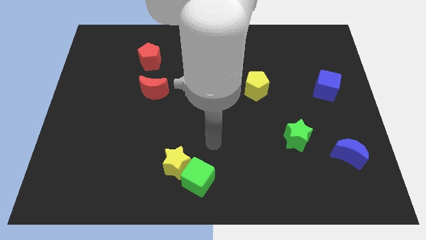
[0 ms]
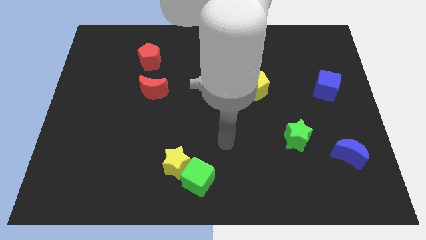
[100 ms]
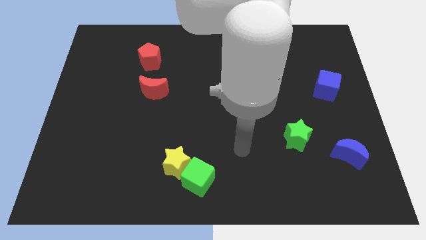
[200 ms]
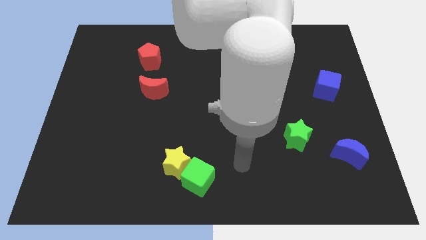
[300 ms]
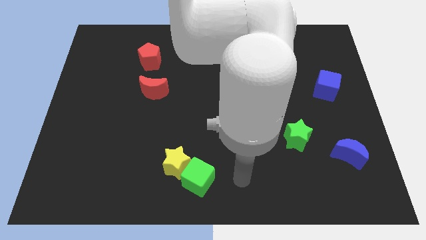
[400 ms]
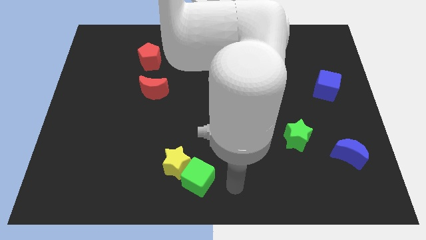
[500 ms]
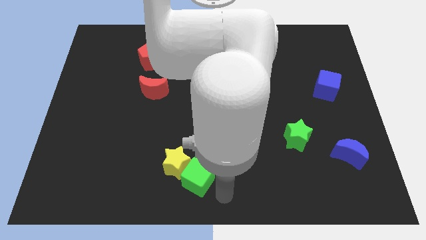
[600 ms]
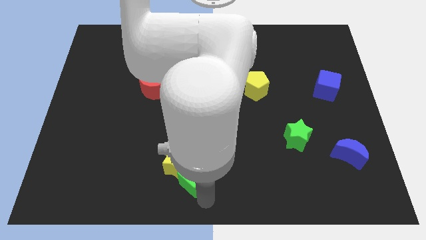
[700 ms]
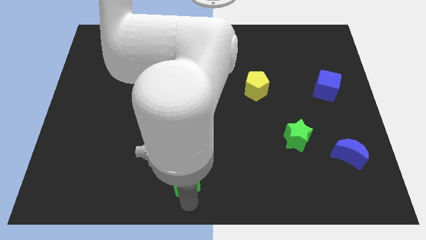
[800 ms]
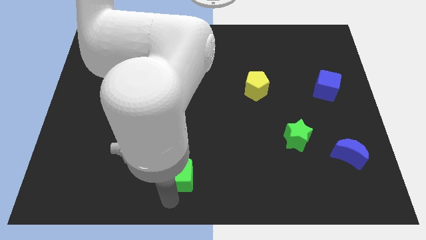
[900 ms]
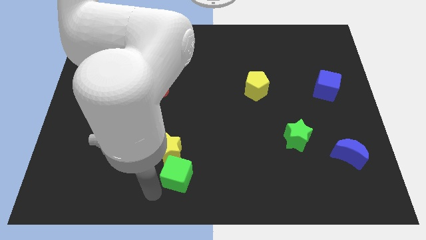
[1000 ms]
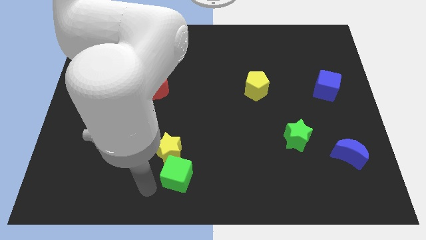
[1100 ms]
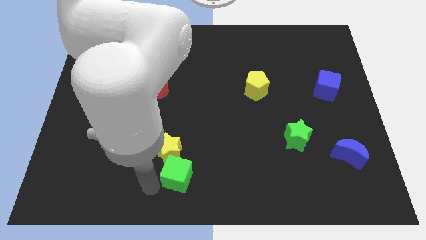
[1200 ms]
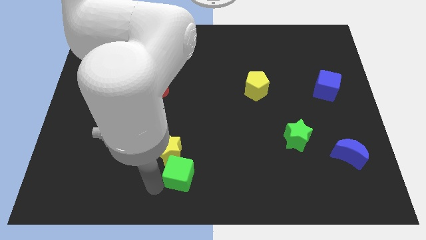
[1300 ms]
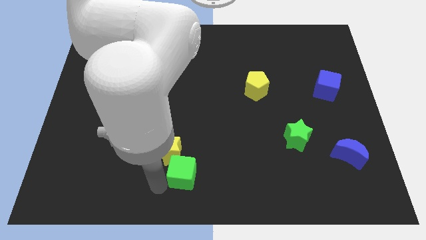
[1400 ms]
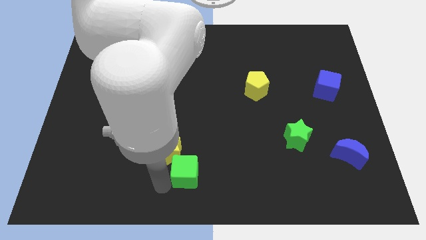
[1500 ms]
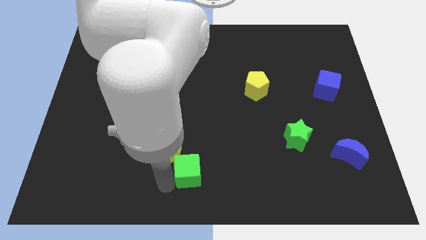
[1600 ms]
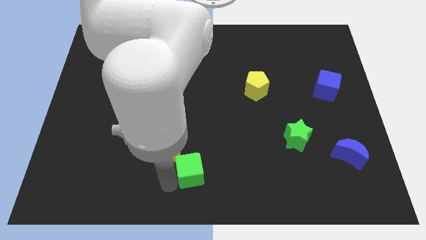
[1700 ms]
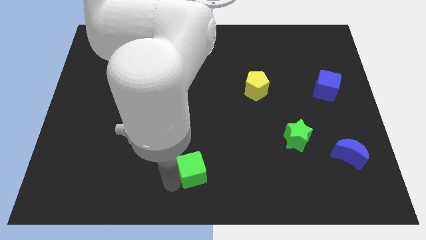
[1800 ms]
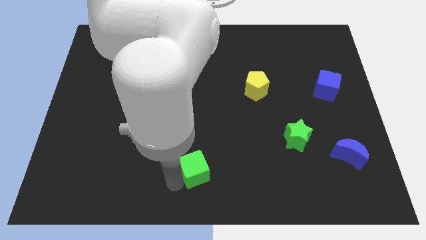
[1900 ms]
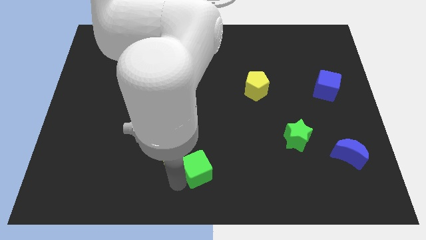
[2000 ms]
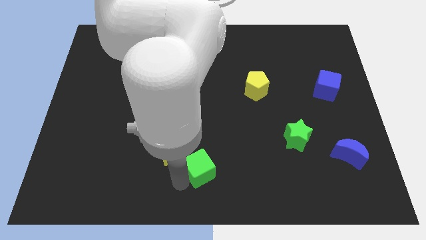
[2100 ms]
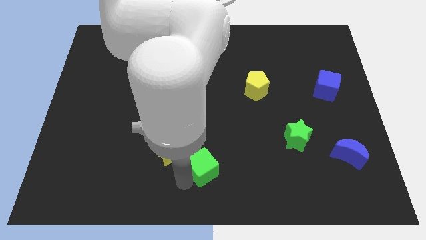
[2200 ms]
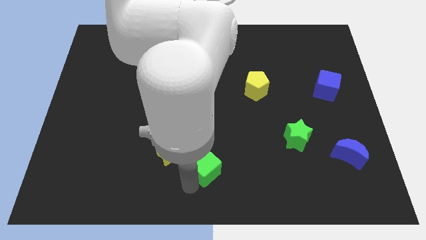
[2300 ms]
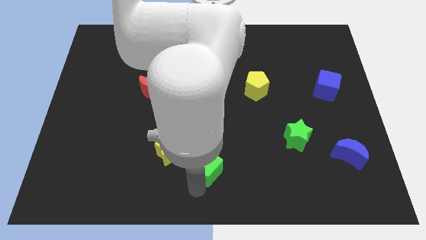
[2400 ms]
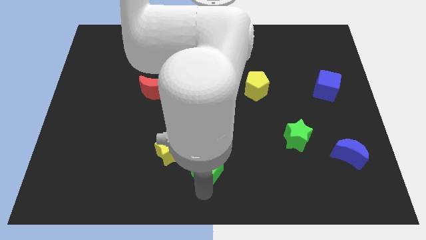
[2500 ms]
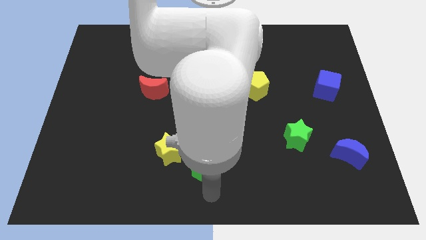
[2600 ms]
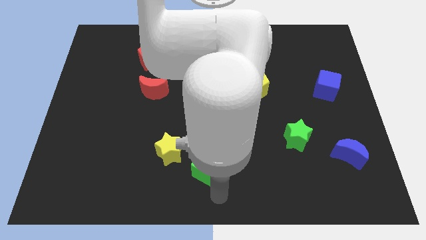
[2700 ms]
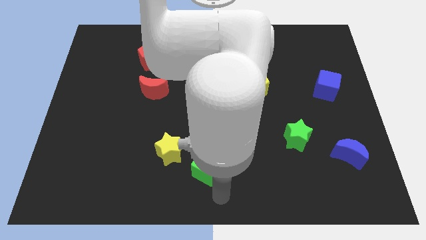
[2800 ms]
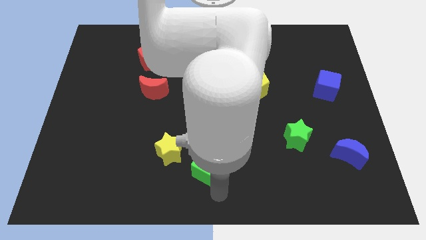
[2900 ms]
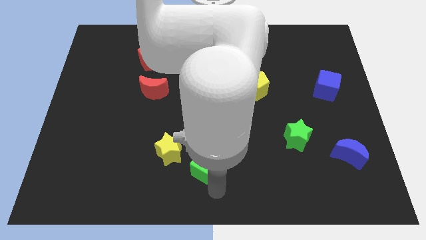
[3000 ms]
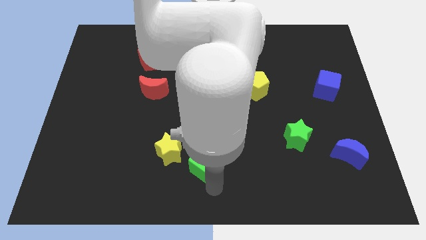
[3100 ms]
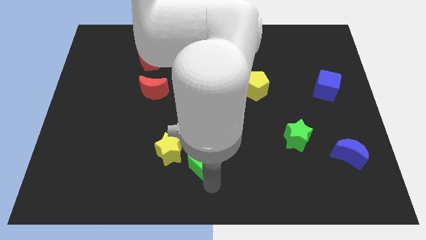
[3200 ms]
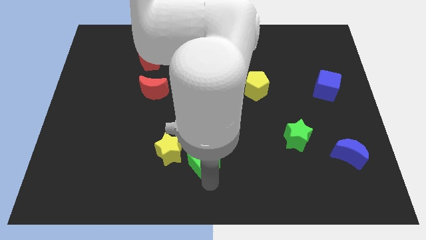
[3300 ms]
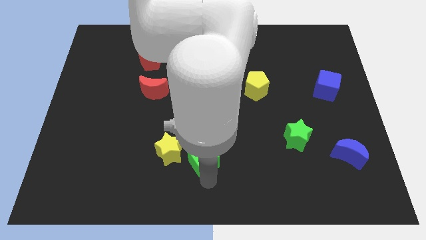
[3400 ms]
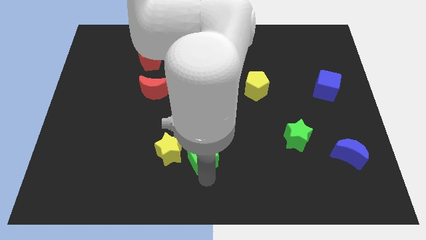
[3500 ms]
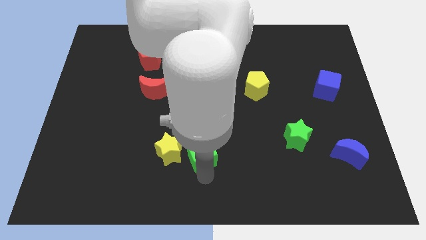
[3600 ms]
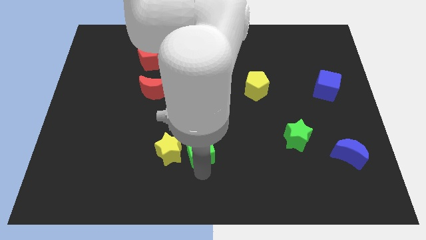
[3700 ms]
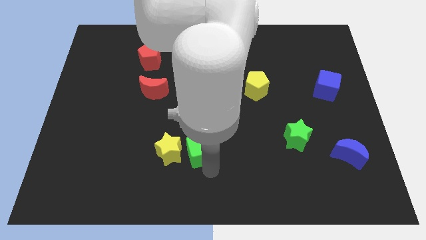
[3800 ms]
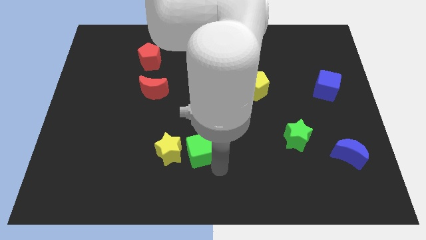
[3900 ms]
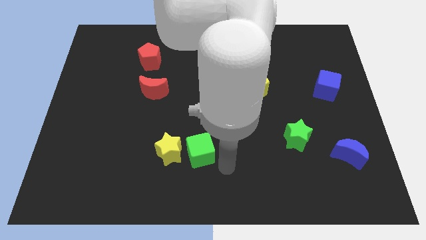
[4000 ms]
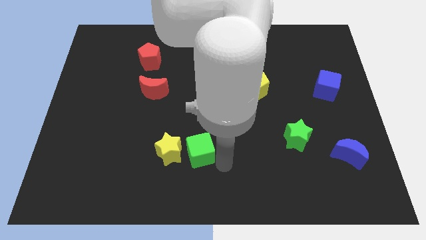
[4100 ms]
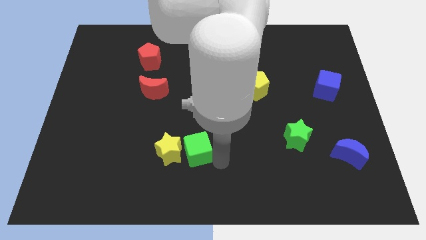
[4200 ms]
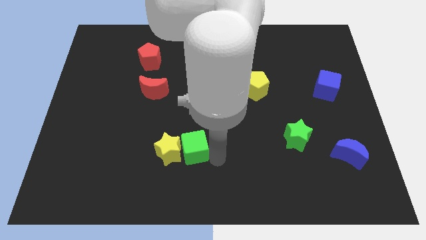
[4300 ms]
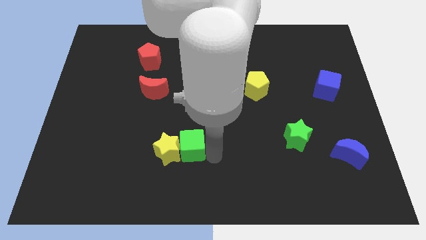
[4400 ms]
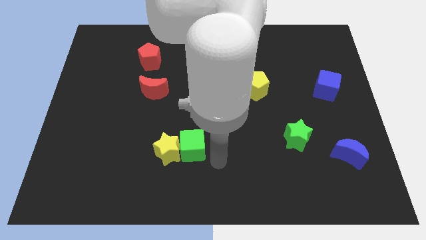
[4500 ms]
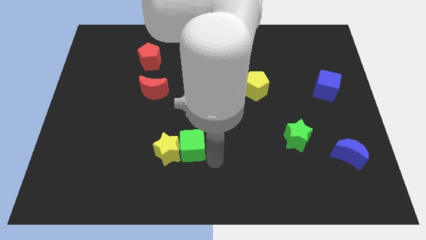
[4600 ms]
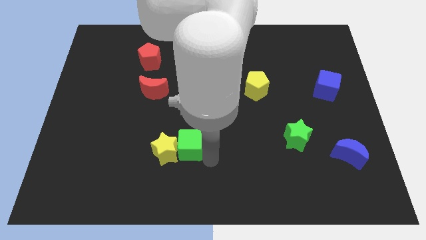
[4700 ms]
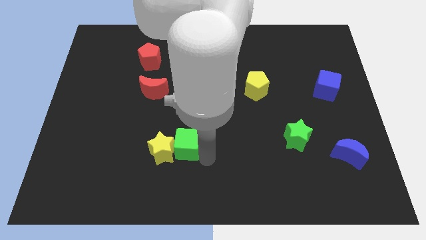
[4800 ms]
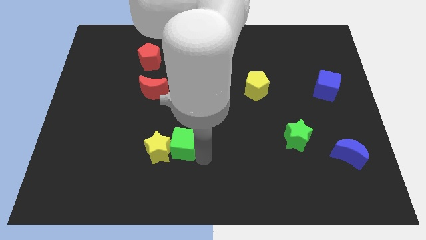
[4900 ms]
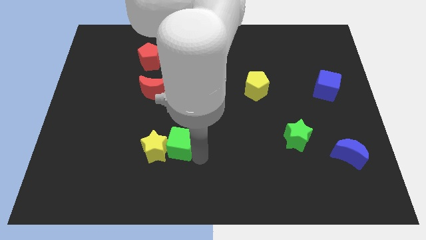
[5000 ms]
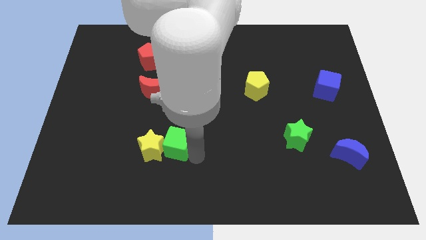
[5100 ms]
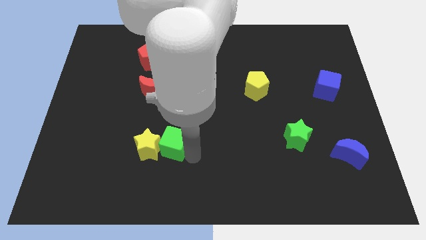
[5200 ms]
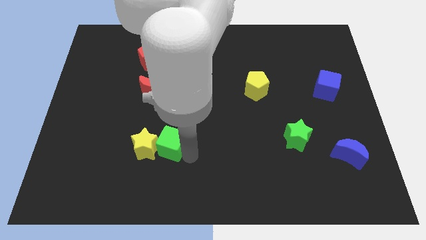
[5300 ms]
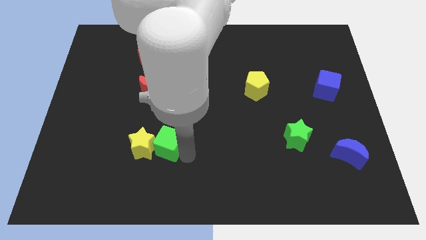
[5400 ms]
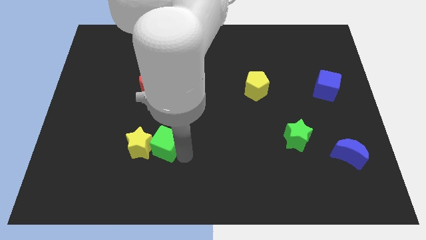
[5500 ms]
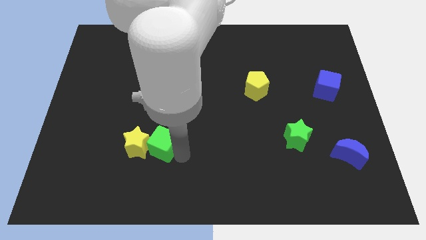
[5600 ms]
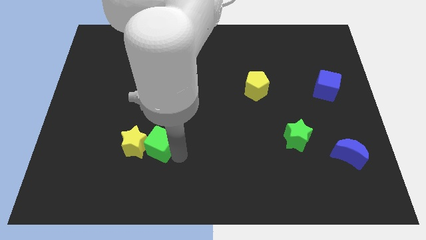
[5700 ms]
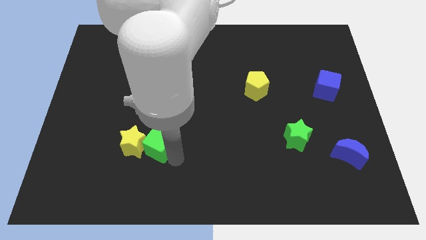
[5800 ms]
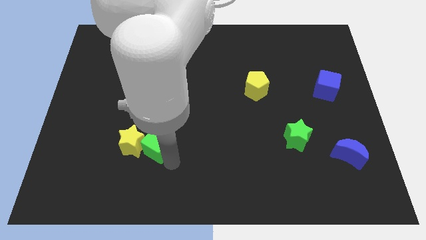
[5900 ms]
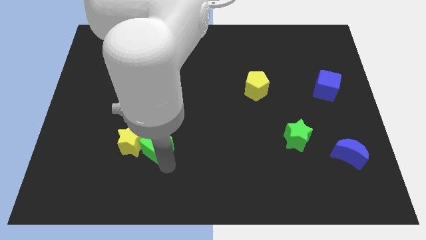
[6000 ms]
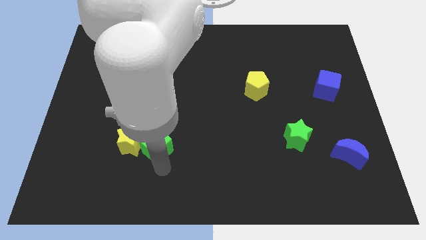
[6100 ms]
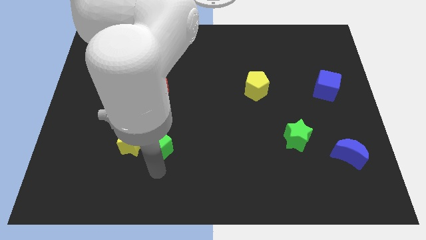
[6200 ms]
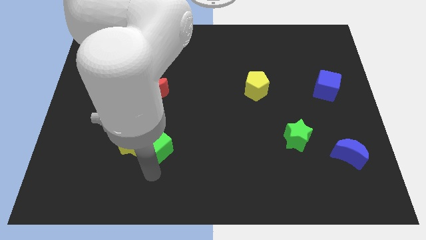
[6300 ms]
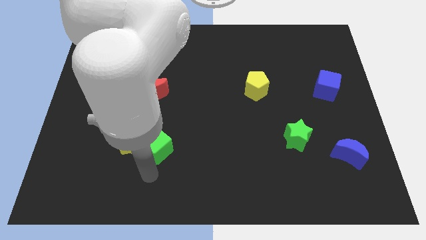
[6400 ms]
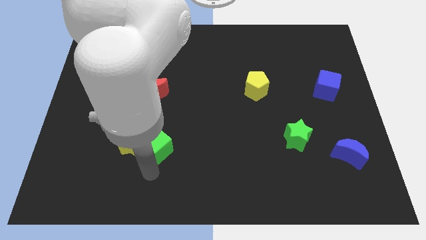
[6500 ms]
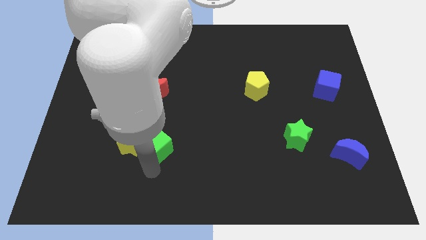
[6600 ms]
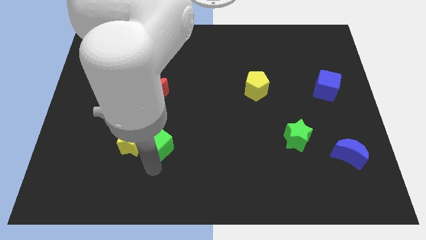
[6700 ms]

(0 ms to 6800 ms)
push the green cube to the bottom side of the red moon

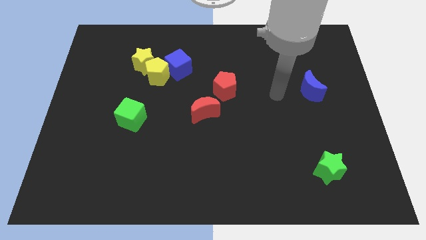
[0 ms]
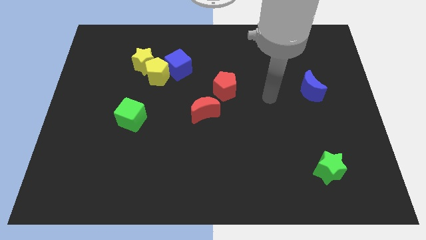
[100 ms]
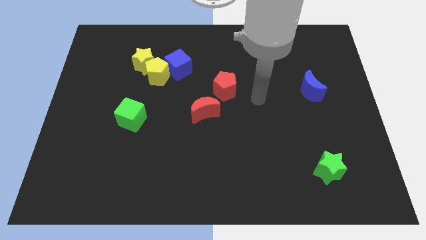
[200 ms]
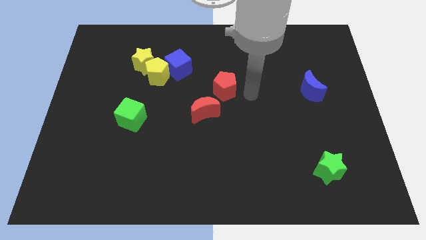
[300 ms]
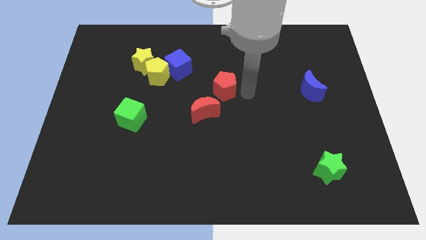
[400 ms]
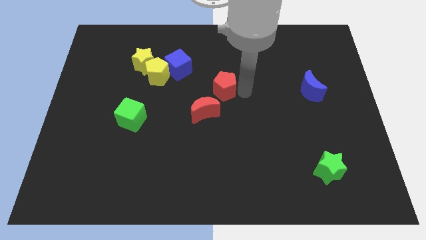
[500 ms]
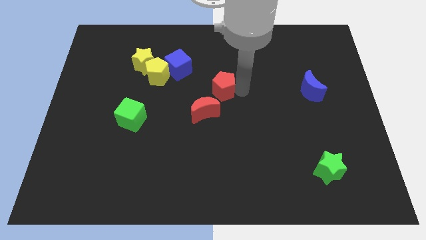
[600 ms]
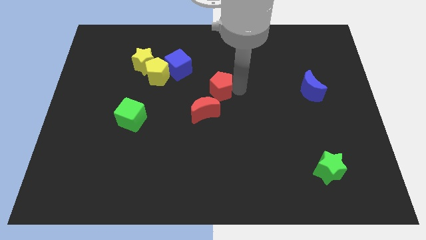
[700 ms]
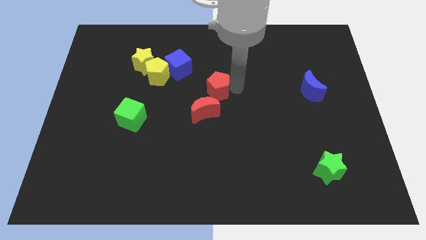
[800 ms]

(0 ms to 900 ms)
move the red pentagon to the bottom right of the blue cube
